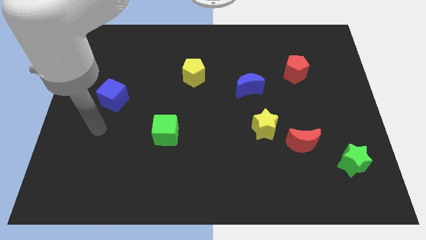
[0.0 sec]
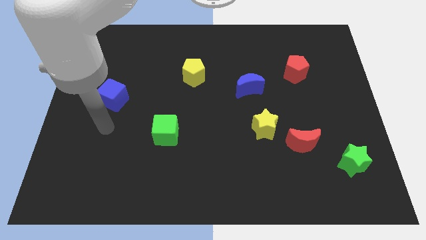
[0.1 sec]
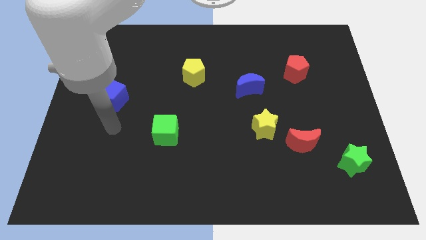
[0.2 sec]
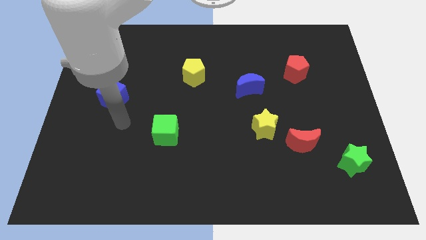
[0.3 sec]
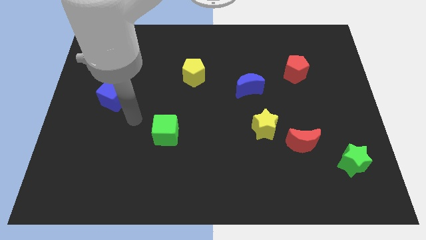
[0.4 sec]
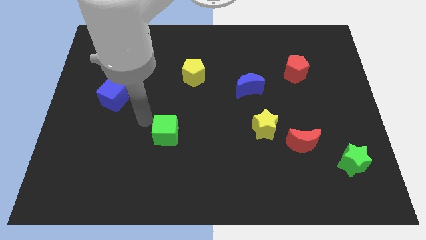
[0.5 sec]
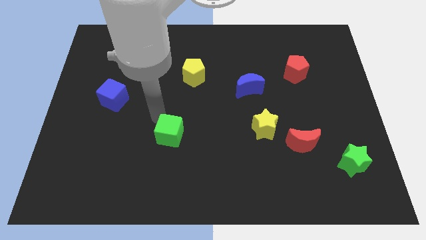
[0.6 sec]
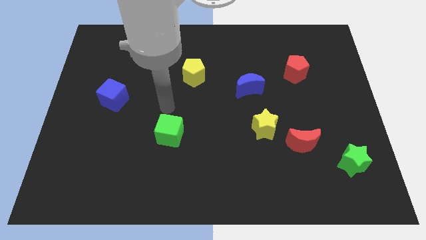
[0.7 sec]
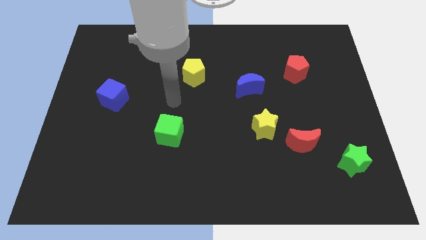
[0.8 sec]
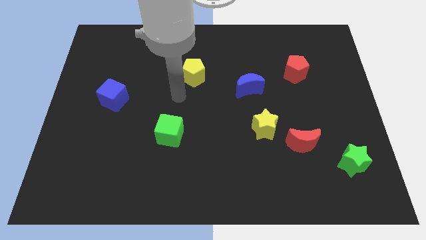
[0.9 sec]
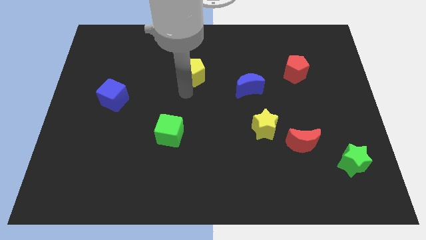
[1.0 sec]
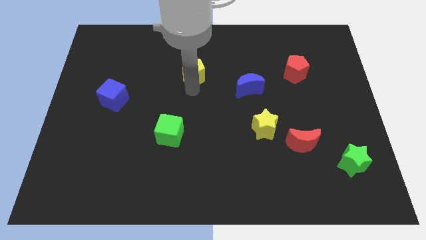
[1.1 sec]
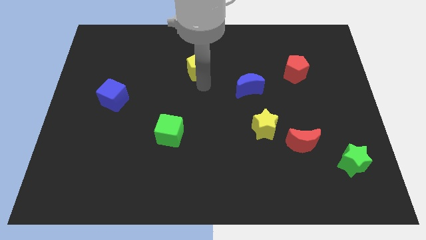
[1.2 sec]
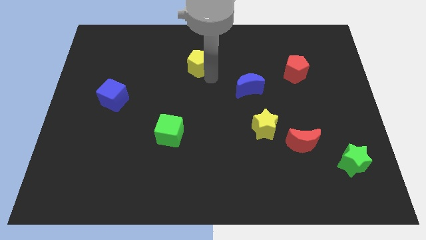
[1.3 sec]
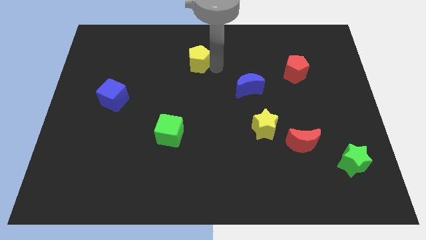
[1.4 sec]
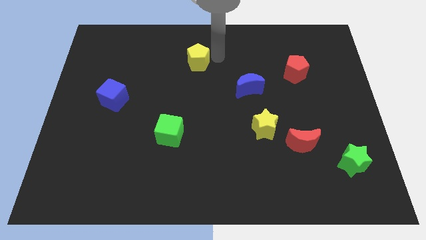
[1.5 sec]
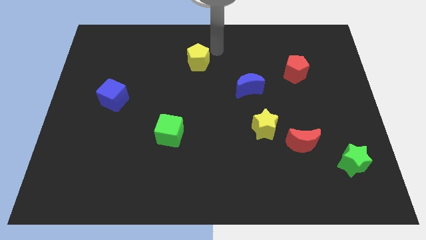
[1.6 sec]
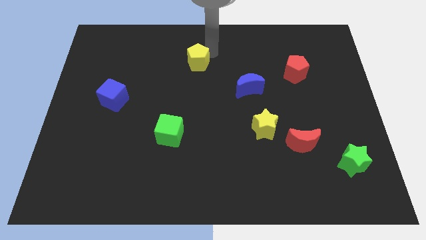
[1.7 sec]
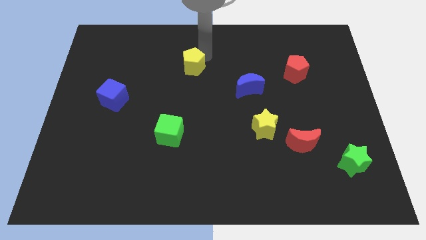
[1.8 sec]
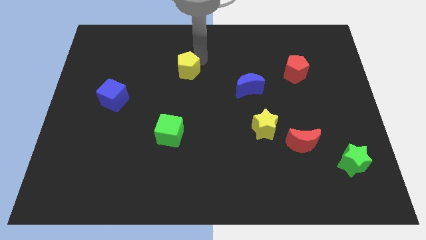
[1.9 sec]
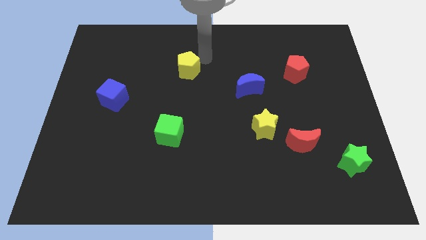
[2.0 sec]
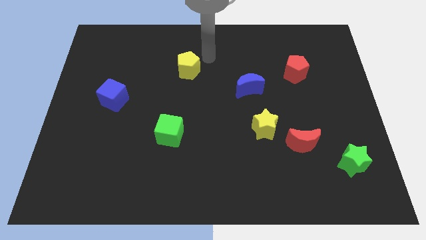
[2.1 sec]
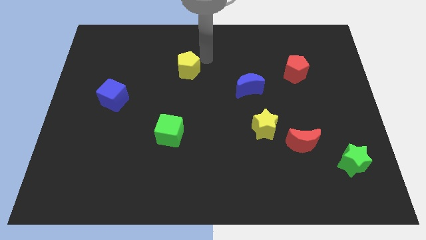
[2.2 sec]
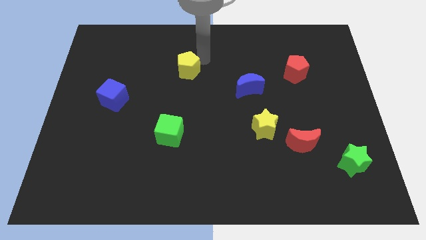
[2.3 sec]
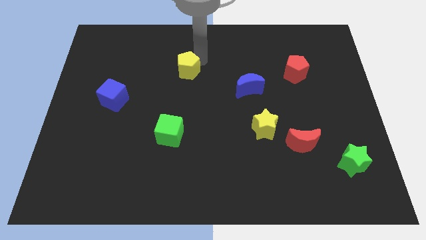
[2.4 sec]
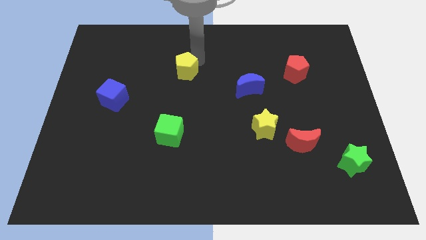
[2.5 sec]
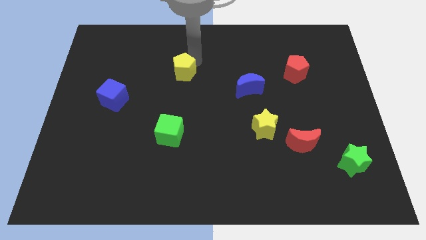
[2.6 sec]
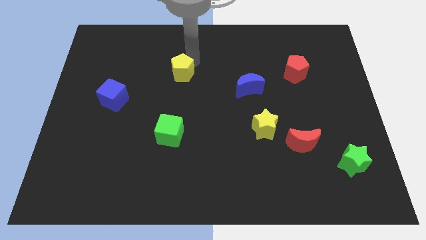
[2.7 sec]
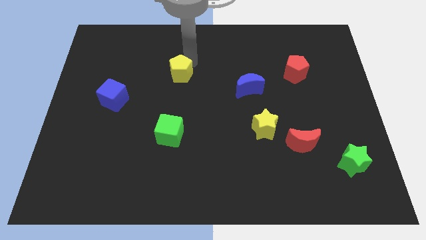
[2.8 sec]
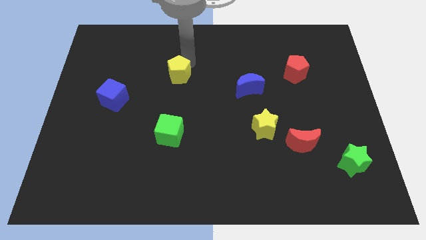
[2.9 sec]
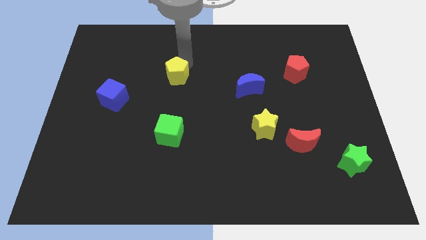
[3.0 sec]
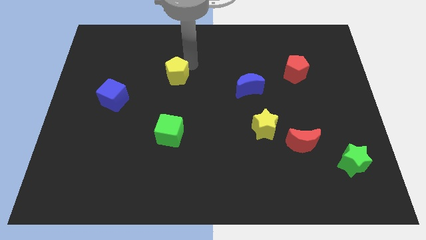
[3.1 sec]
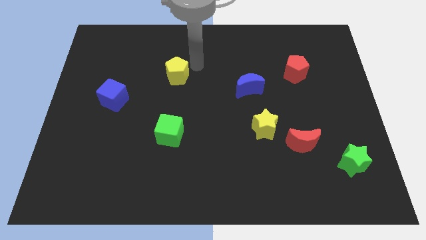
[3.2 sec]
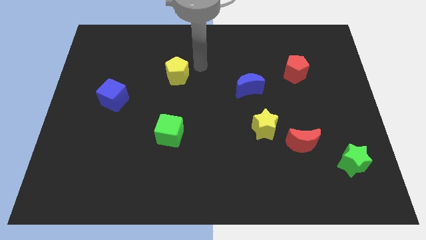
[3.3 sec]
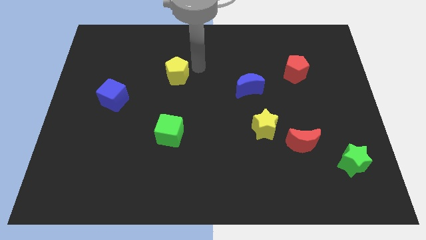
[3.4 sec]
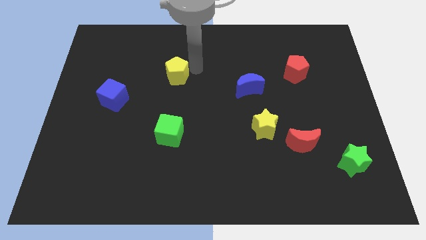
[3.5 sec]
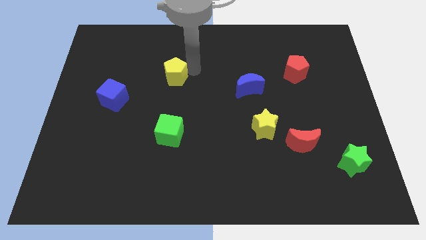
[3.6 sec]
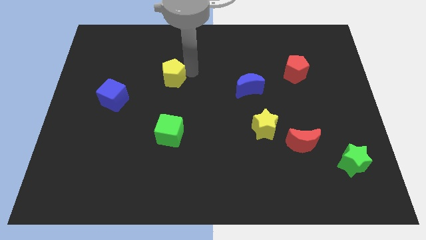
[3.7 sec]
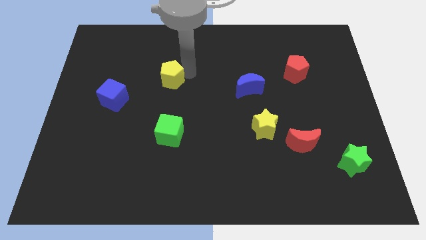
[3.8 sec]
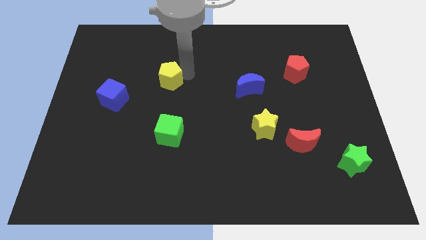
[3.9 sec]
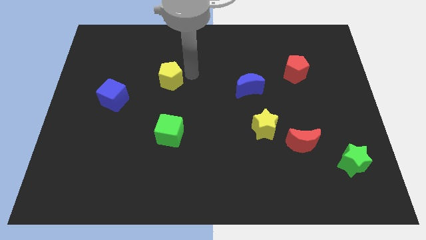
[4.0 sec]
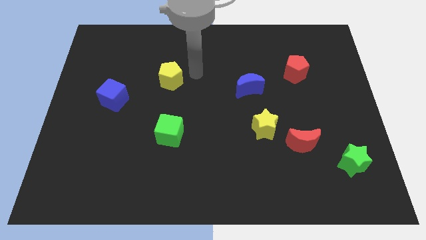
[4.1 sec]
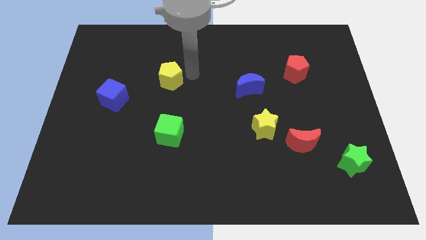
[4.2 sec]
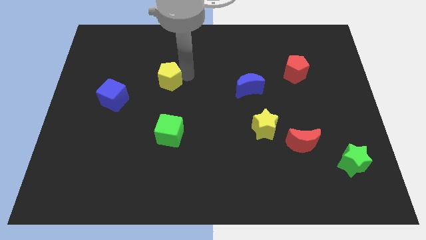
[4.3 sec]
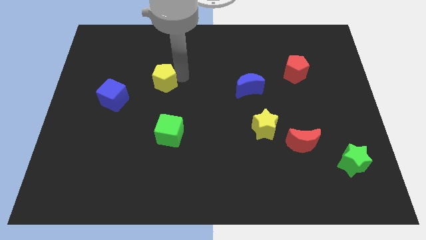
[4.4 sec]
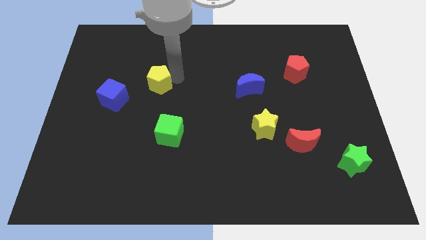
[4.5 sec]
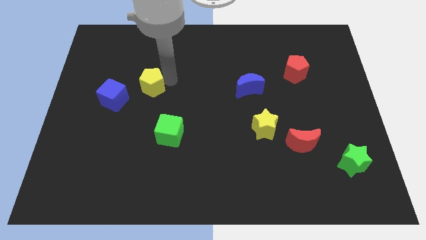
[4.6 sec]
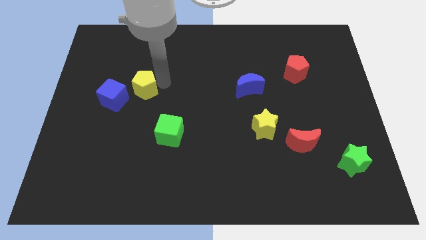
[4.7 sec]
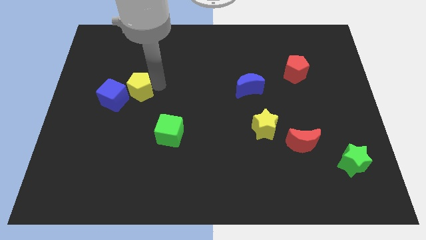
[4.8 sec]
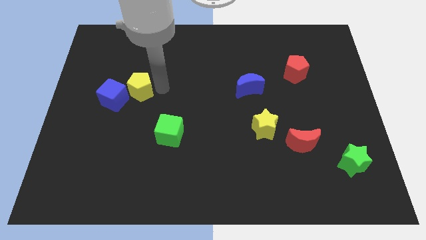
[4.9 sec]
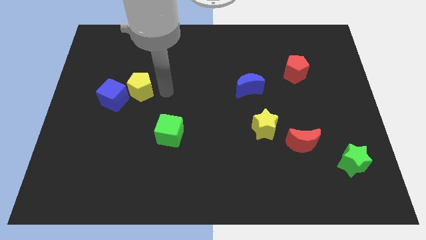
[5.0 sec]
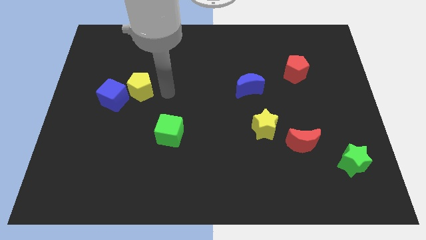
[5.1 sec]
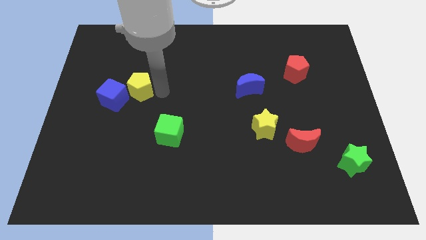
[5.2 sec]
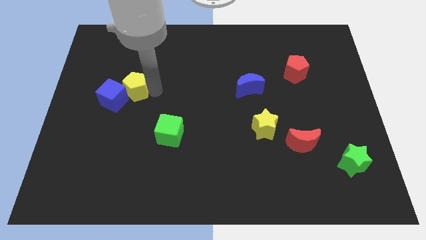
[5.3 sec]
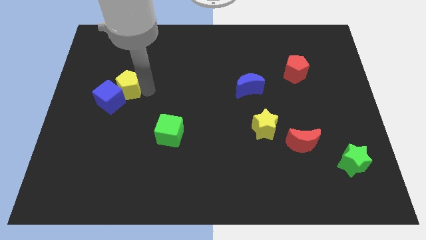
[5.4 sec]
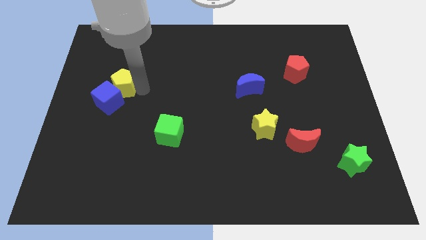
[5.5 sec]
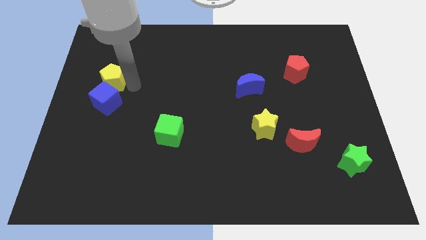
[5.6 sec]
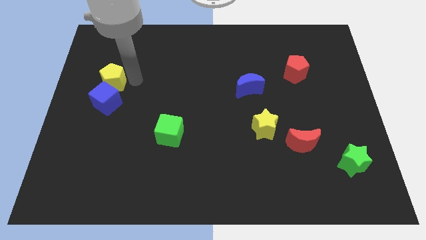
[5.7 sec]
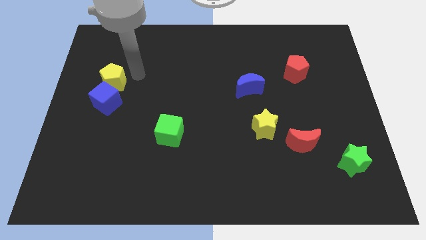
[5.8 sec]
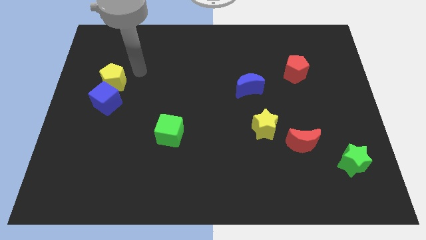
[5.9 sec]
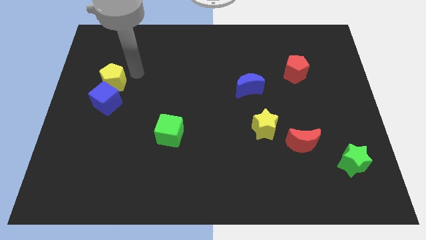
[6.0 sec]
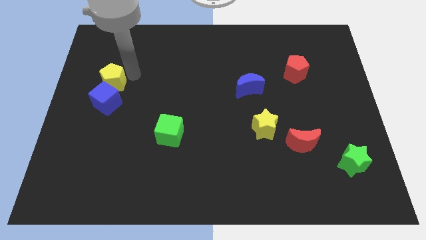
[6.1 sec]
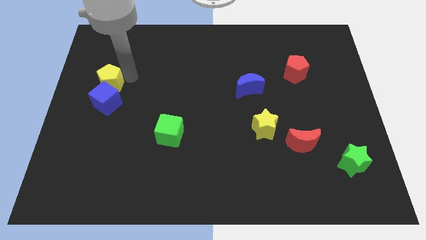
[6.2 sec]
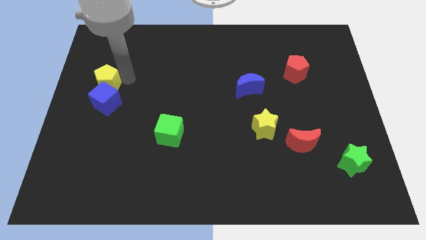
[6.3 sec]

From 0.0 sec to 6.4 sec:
put the yellow pentagon to the left side

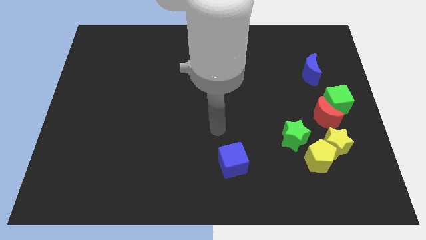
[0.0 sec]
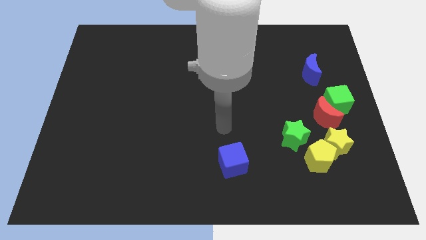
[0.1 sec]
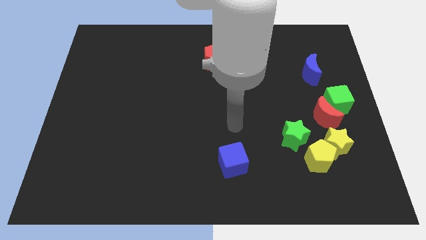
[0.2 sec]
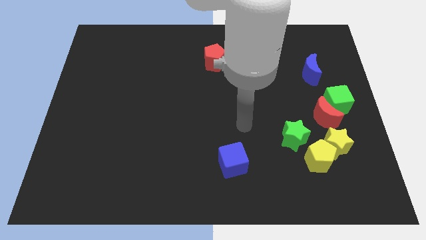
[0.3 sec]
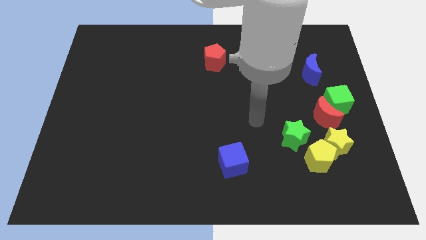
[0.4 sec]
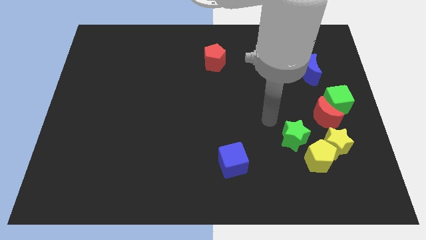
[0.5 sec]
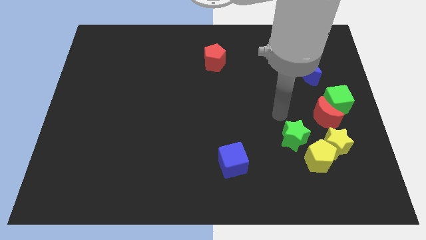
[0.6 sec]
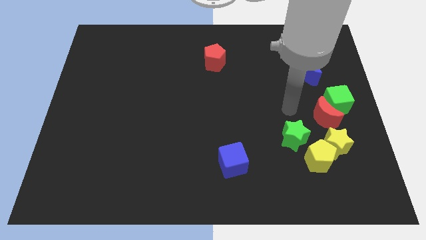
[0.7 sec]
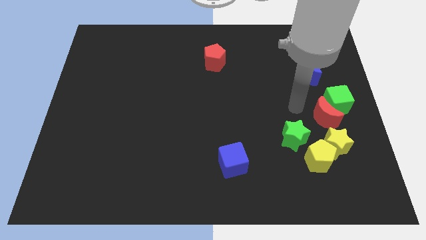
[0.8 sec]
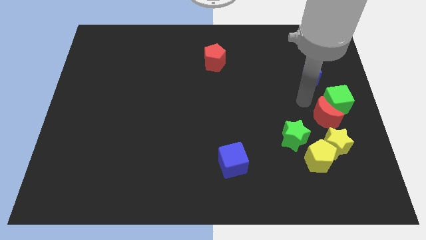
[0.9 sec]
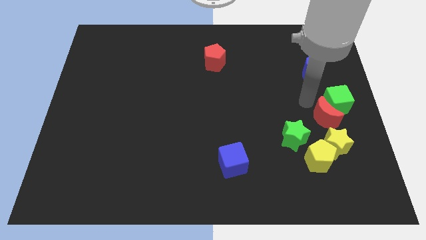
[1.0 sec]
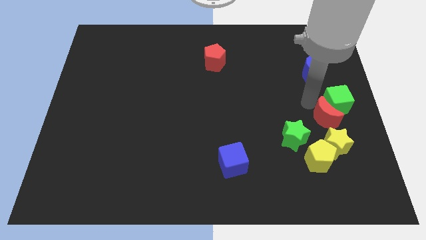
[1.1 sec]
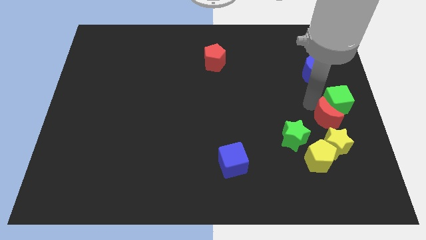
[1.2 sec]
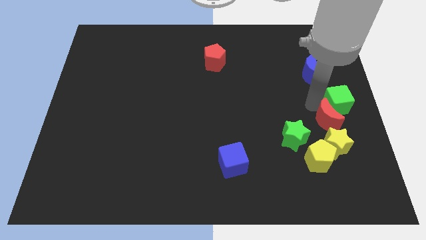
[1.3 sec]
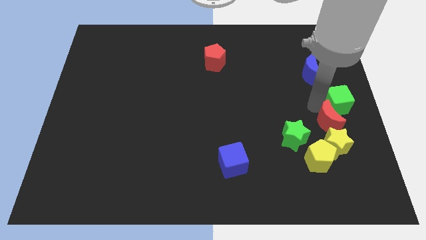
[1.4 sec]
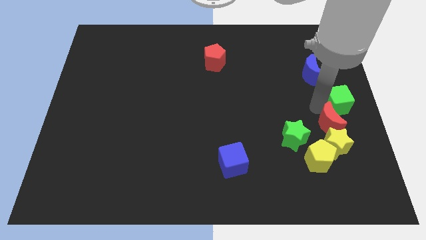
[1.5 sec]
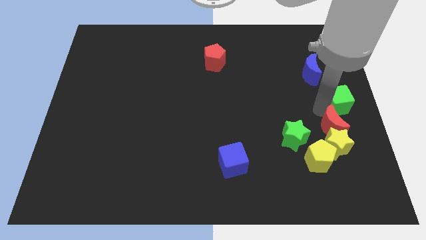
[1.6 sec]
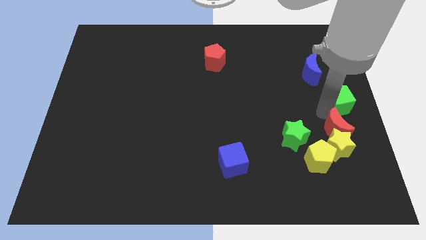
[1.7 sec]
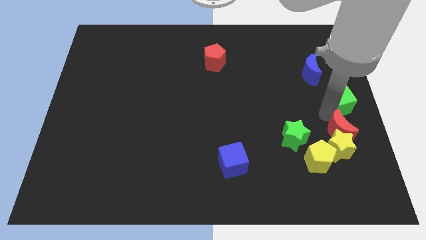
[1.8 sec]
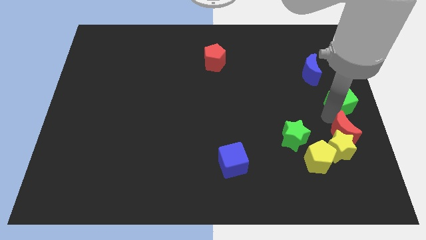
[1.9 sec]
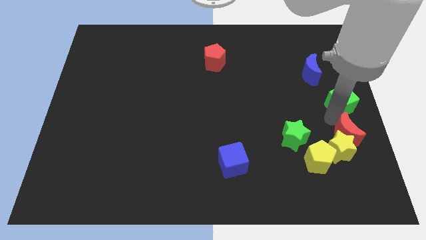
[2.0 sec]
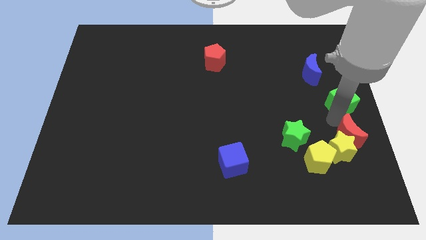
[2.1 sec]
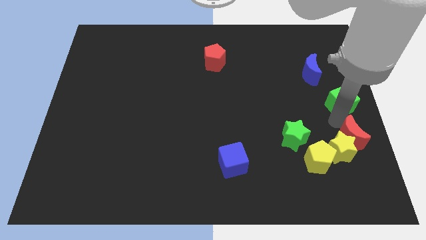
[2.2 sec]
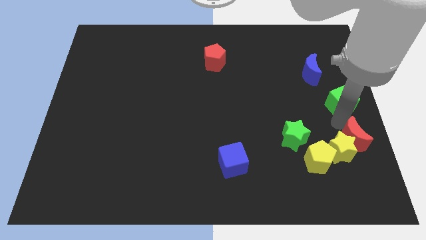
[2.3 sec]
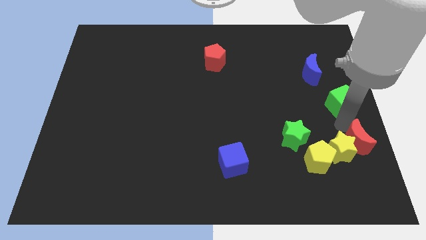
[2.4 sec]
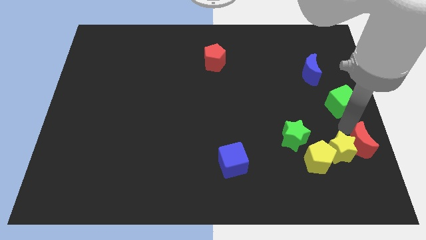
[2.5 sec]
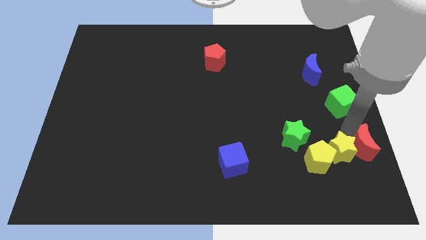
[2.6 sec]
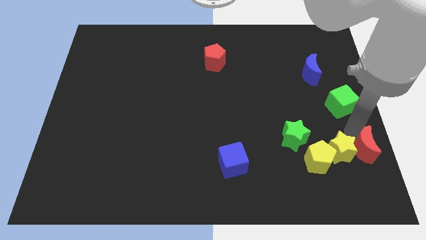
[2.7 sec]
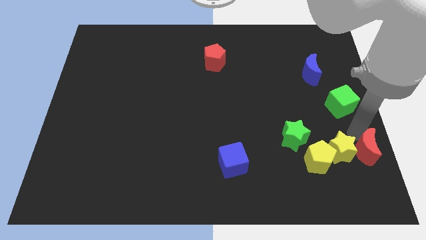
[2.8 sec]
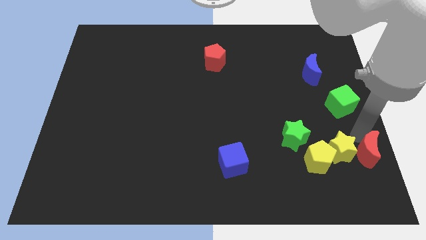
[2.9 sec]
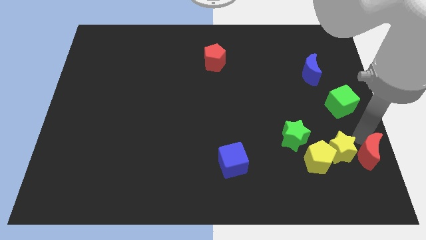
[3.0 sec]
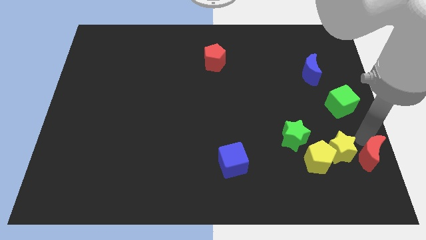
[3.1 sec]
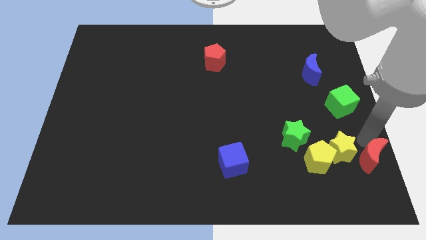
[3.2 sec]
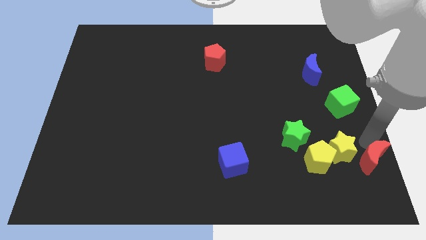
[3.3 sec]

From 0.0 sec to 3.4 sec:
put the red moon to the bottom right corner
